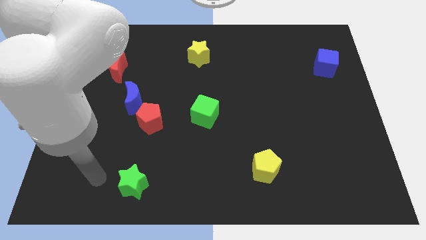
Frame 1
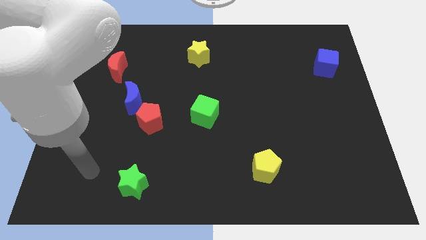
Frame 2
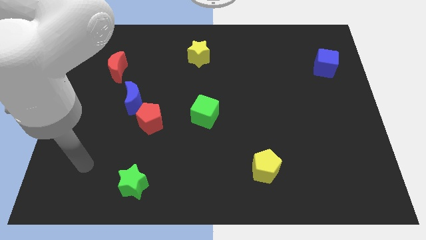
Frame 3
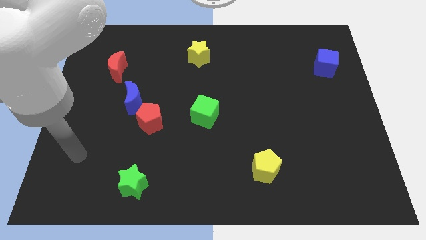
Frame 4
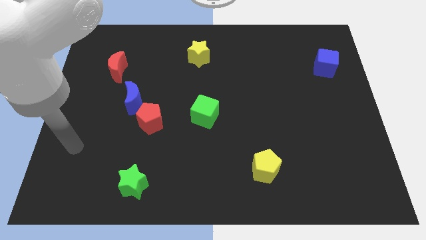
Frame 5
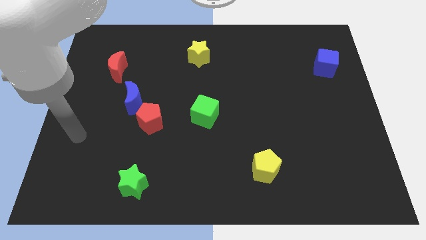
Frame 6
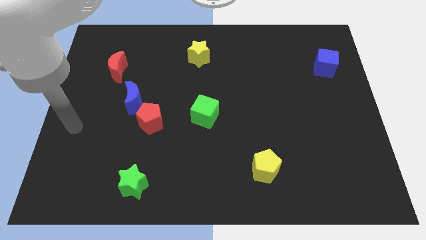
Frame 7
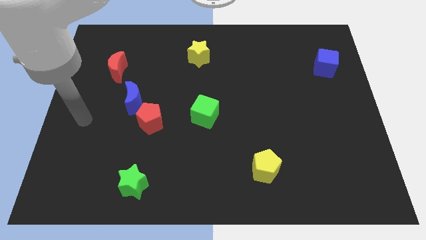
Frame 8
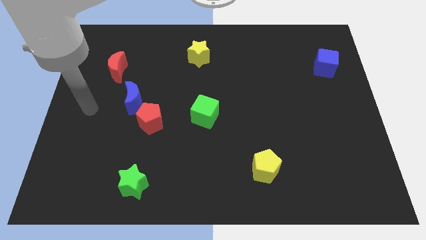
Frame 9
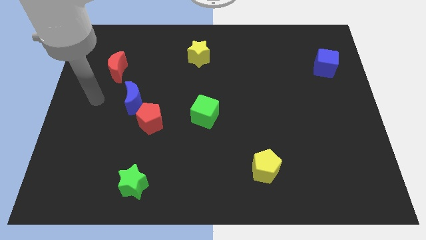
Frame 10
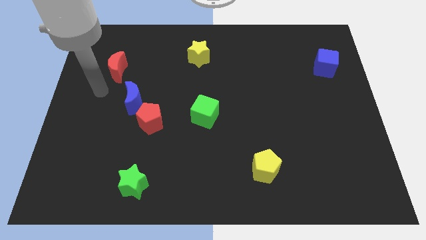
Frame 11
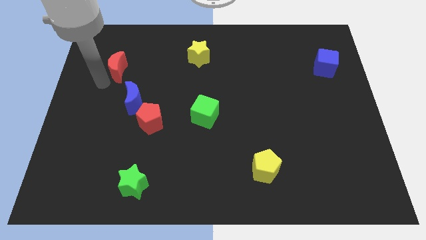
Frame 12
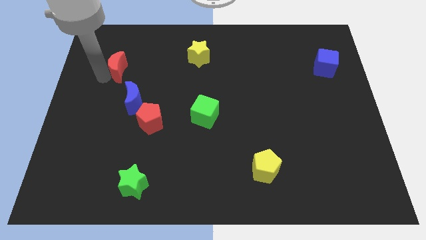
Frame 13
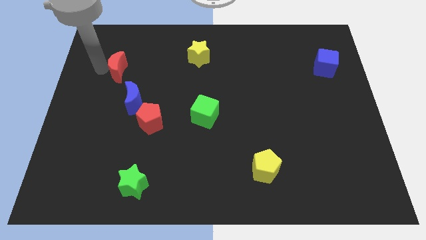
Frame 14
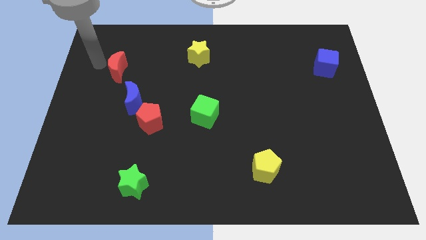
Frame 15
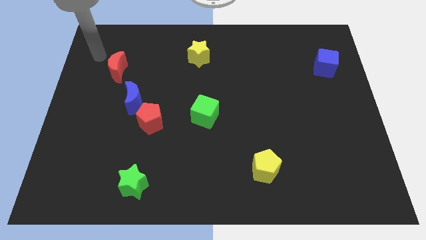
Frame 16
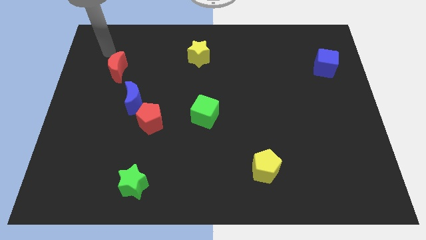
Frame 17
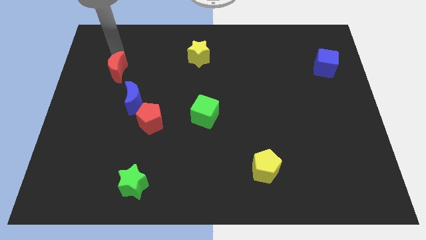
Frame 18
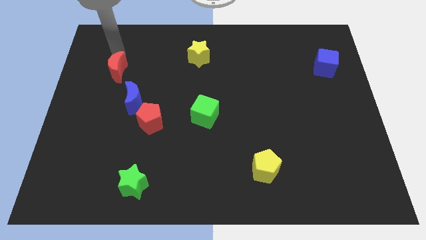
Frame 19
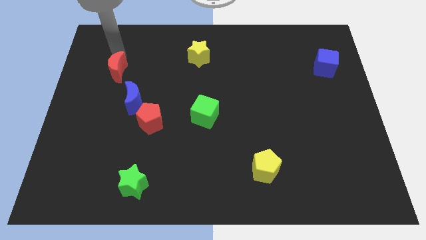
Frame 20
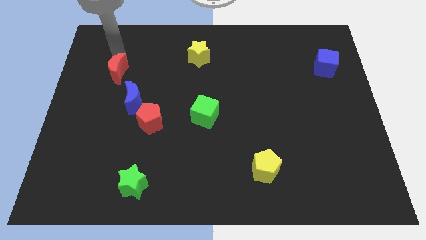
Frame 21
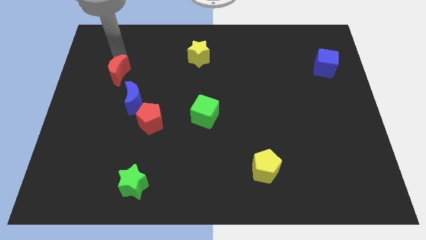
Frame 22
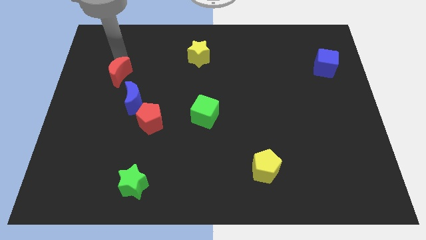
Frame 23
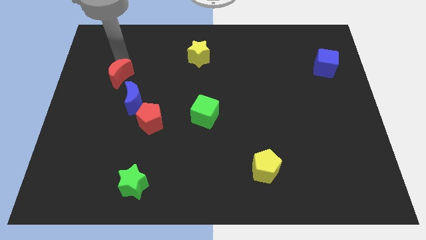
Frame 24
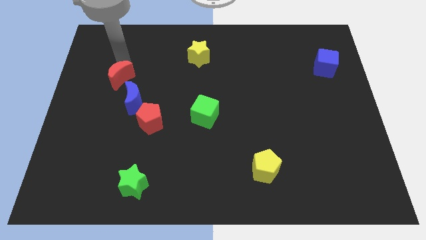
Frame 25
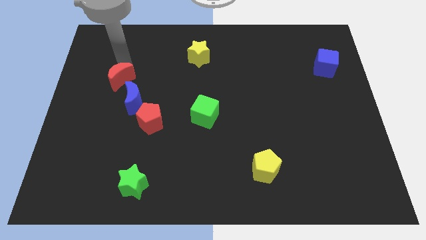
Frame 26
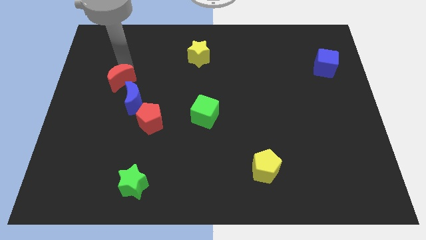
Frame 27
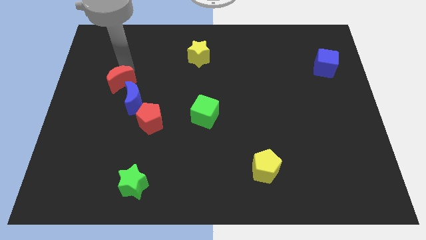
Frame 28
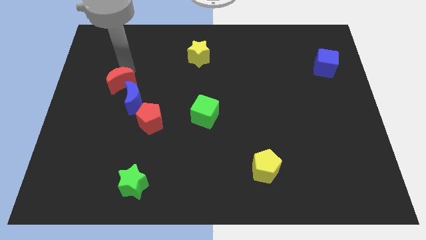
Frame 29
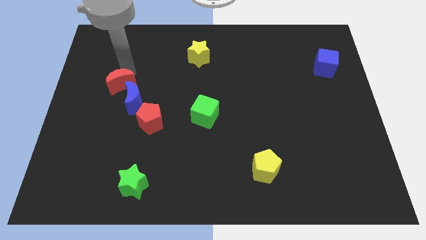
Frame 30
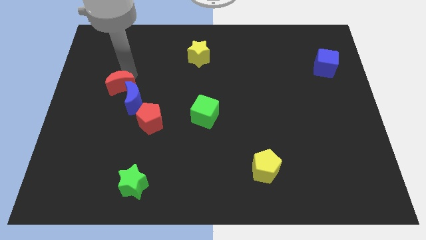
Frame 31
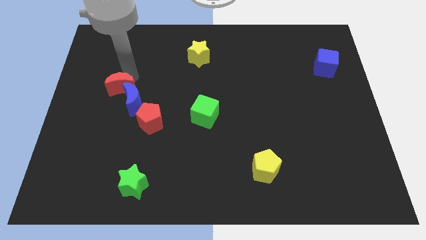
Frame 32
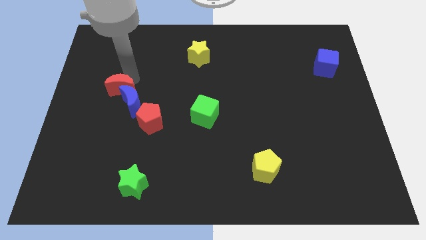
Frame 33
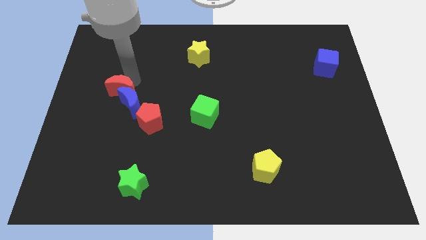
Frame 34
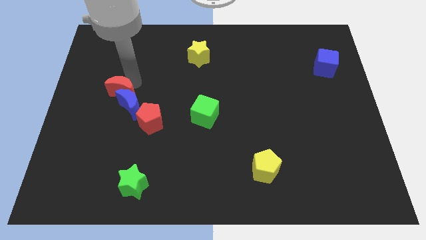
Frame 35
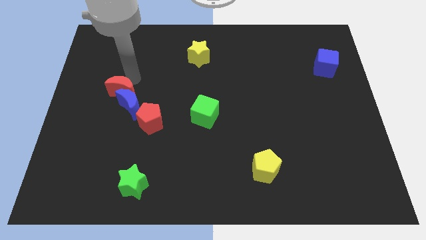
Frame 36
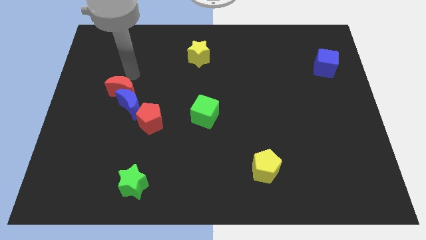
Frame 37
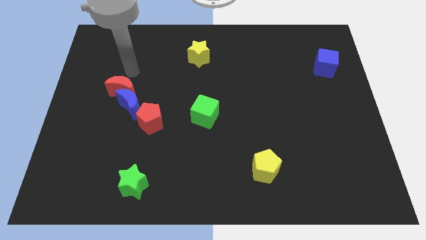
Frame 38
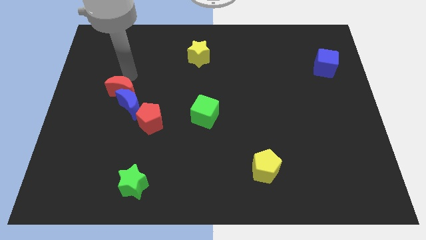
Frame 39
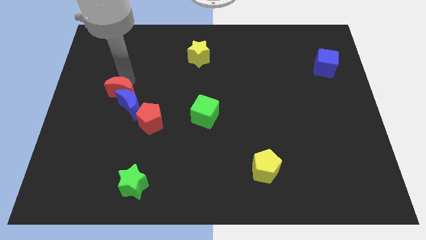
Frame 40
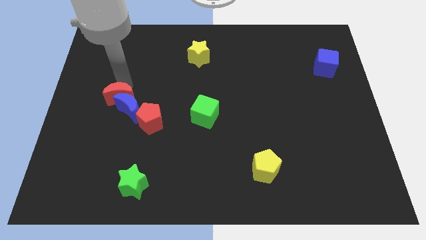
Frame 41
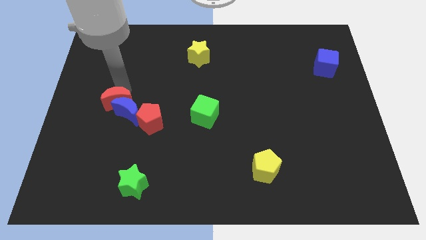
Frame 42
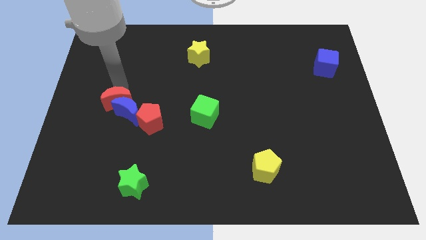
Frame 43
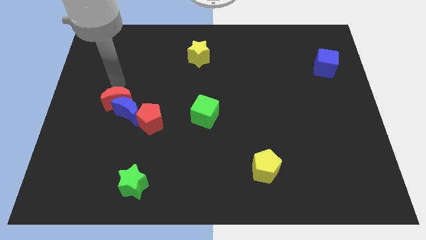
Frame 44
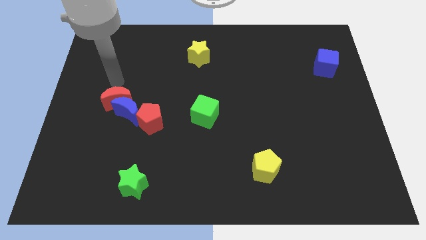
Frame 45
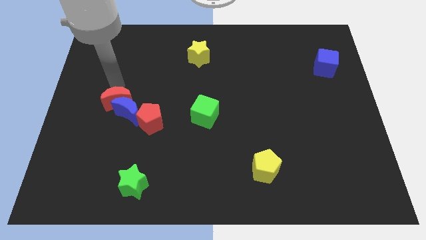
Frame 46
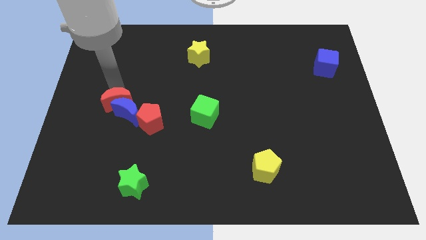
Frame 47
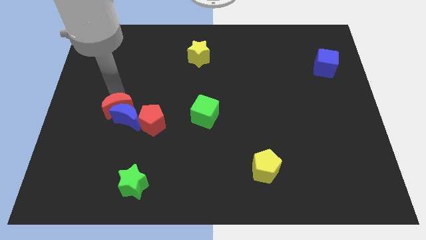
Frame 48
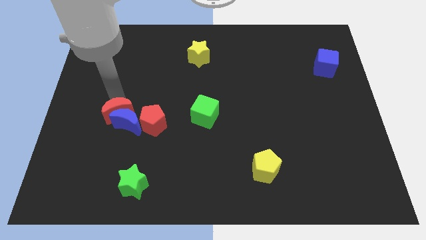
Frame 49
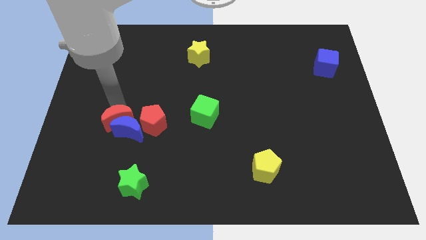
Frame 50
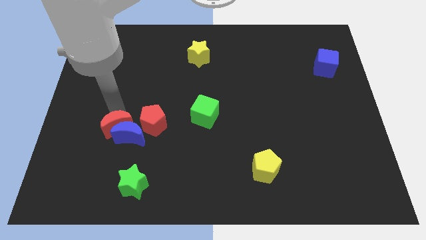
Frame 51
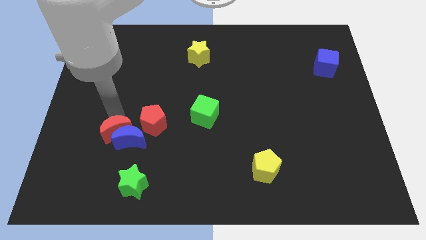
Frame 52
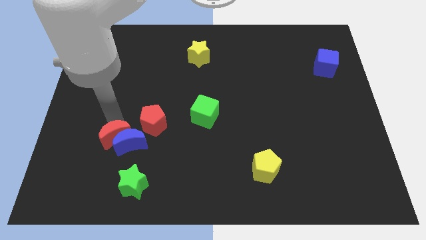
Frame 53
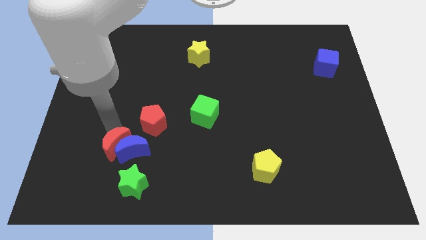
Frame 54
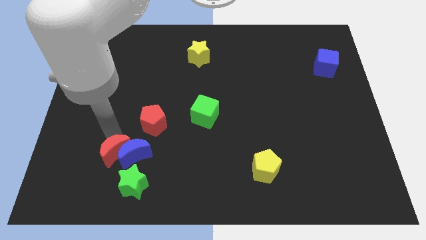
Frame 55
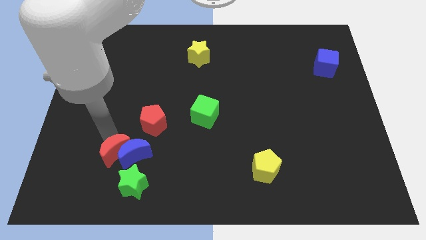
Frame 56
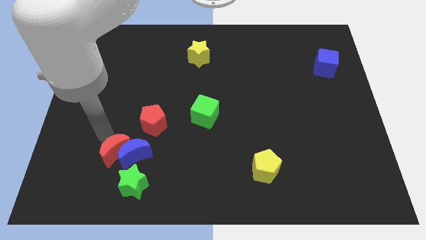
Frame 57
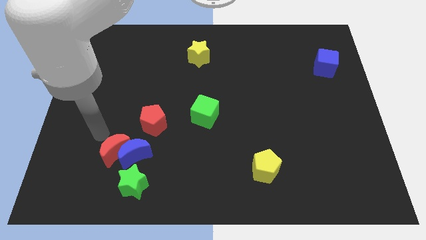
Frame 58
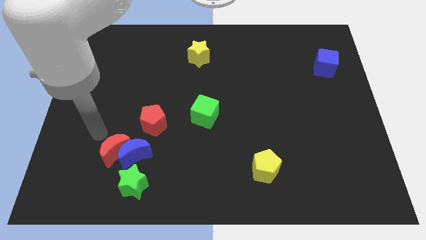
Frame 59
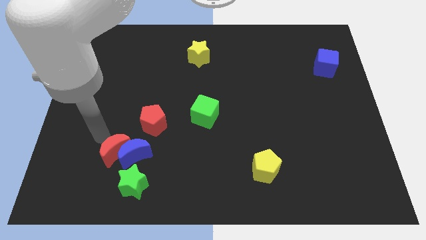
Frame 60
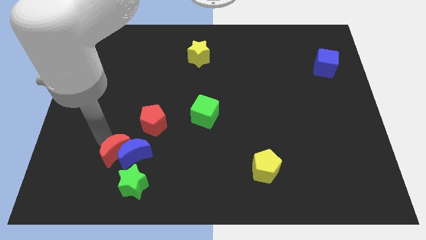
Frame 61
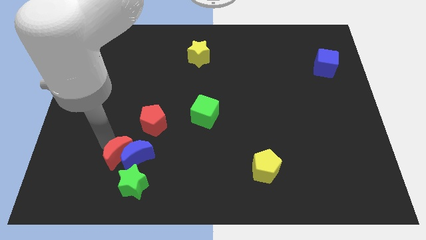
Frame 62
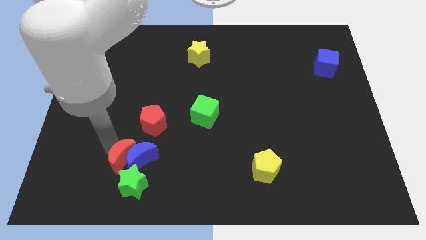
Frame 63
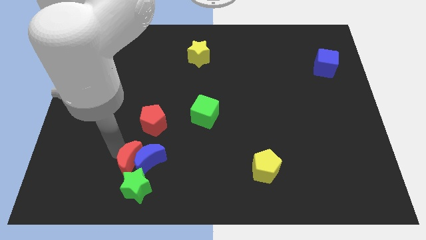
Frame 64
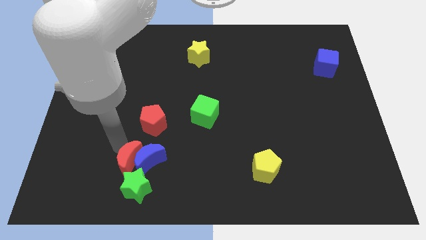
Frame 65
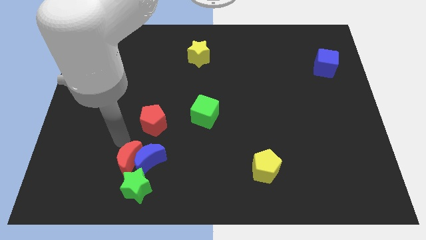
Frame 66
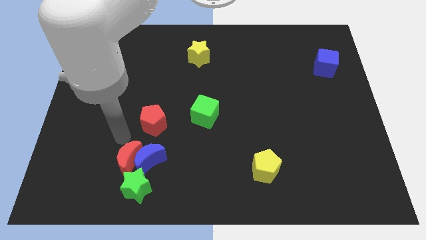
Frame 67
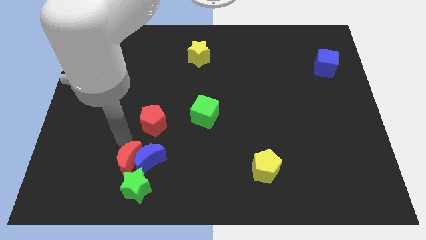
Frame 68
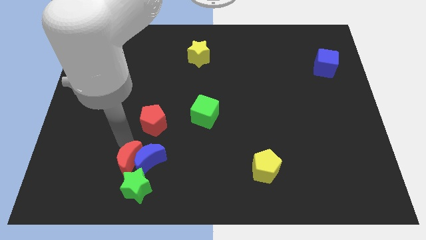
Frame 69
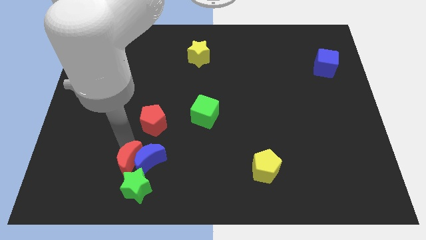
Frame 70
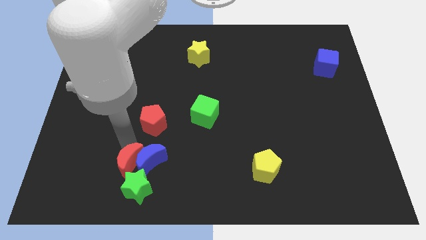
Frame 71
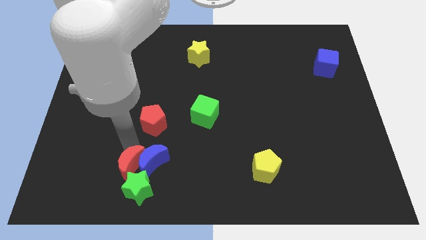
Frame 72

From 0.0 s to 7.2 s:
slide the red moon to the green star
